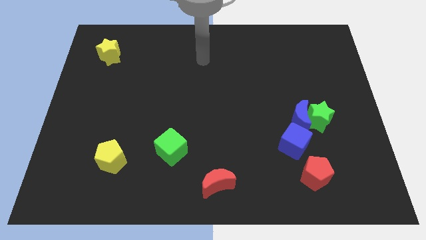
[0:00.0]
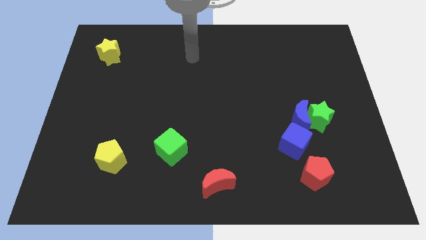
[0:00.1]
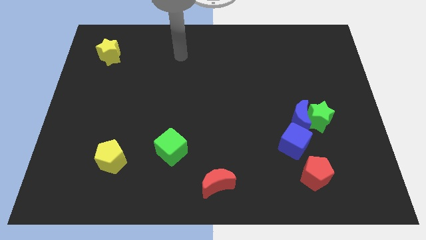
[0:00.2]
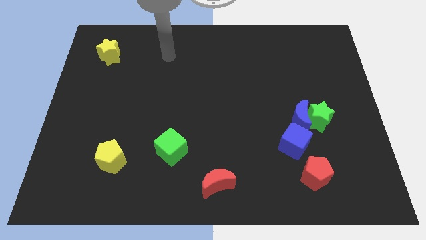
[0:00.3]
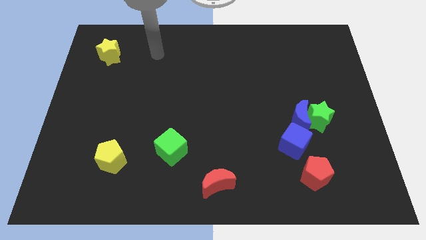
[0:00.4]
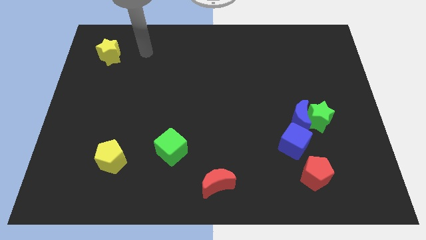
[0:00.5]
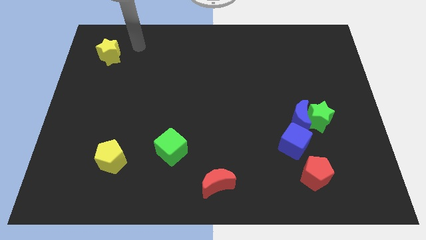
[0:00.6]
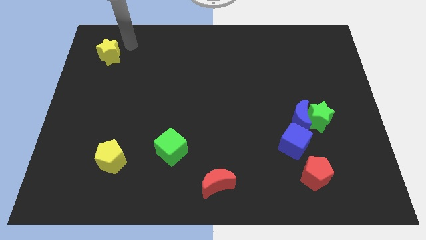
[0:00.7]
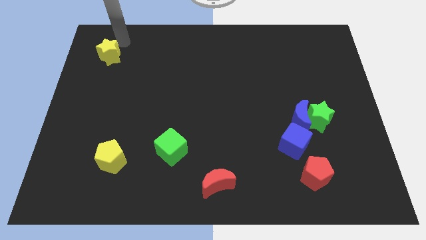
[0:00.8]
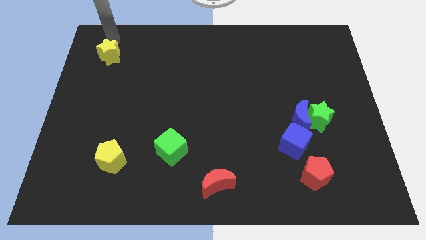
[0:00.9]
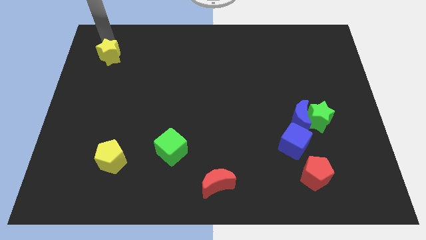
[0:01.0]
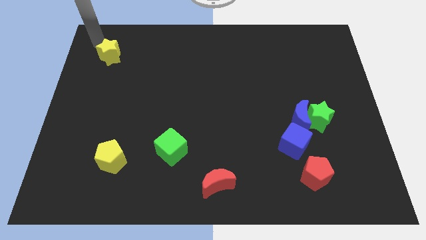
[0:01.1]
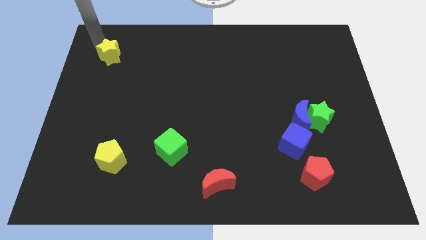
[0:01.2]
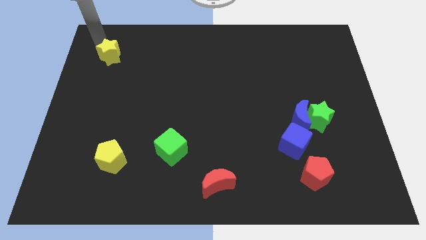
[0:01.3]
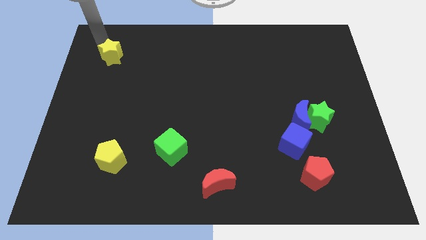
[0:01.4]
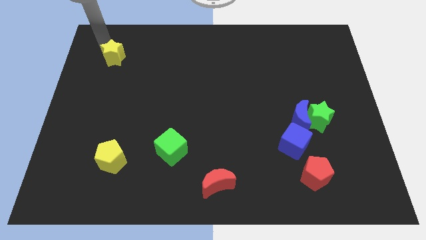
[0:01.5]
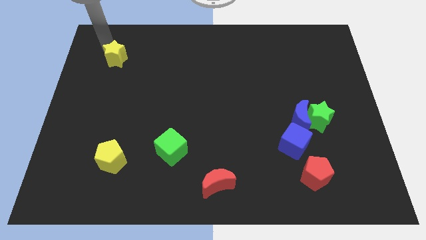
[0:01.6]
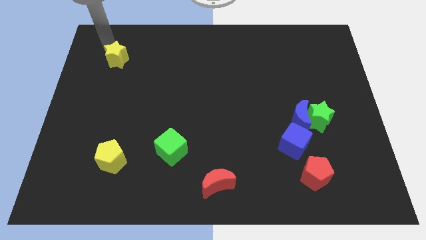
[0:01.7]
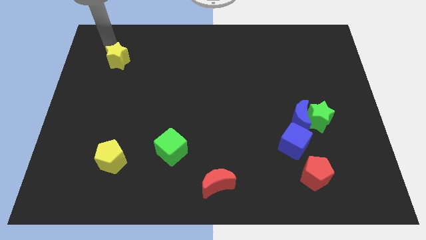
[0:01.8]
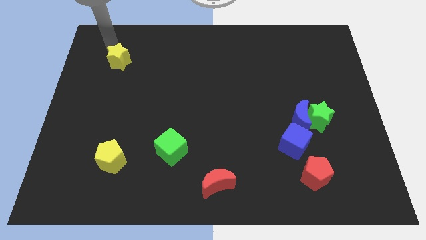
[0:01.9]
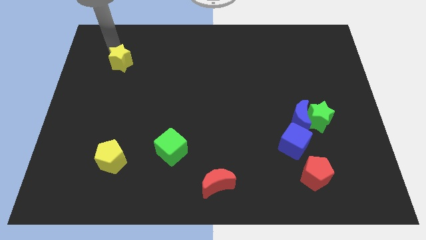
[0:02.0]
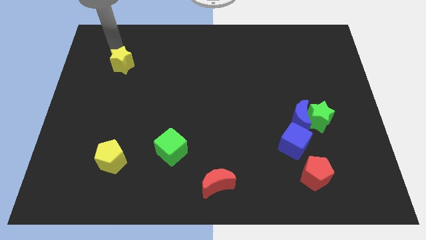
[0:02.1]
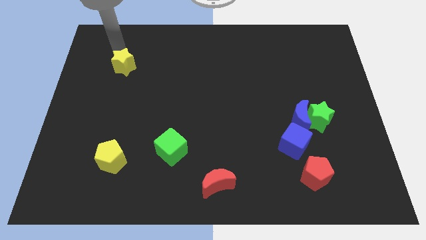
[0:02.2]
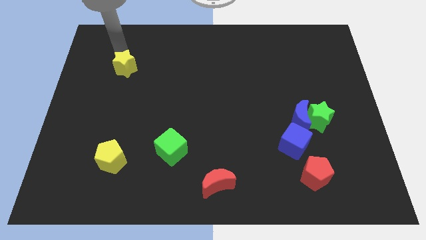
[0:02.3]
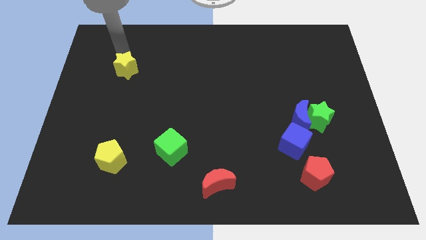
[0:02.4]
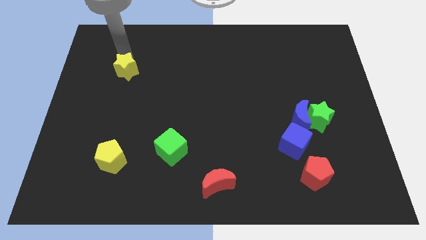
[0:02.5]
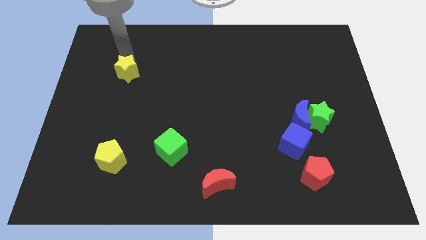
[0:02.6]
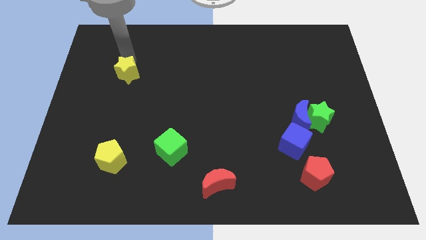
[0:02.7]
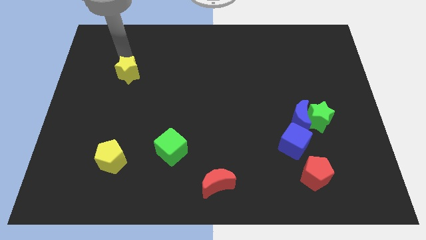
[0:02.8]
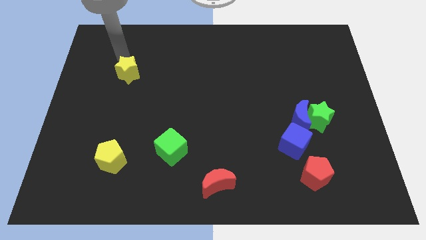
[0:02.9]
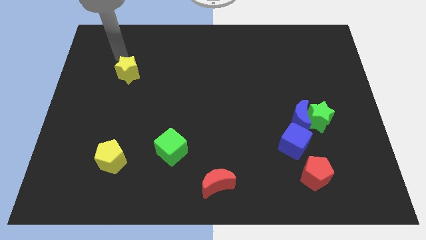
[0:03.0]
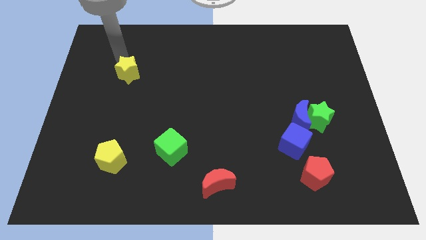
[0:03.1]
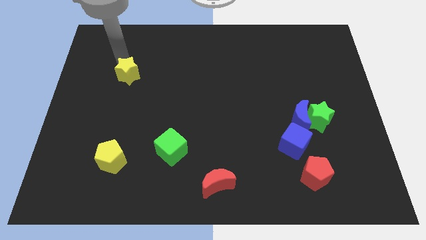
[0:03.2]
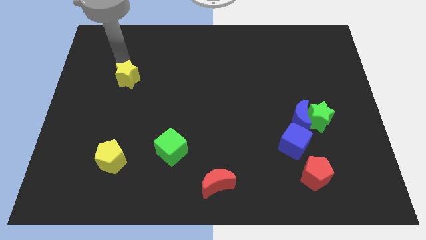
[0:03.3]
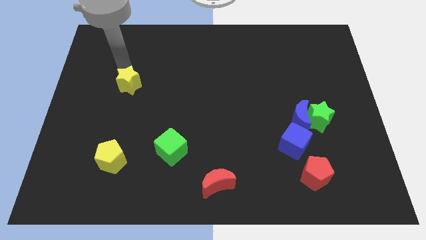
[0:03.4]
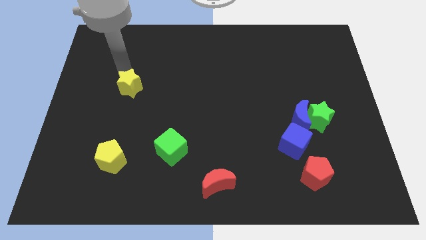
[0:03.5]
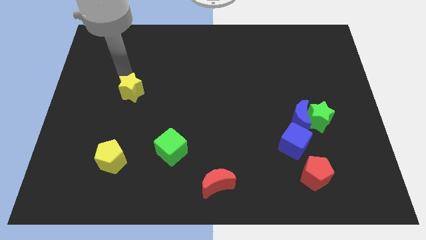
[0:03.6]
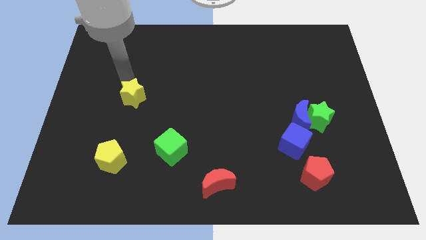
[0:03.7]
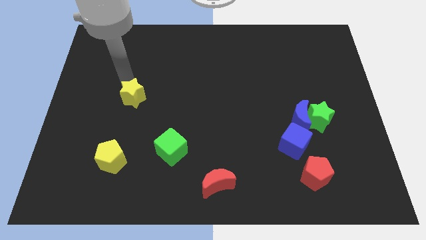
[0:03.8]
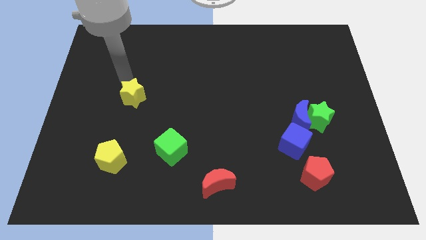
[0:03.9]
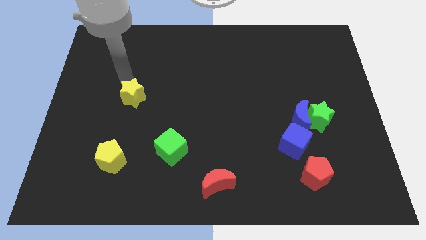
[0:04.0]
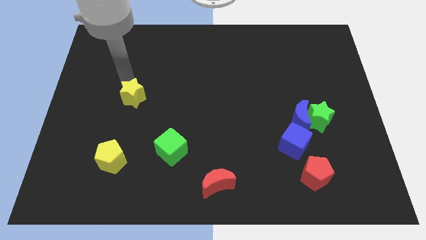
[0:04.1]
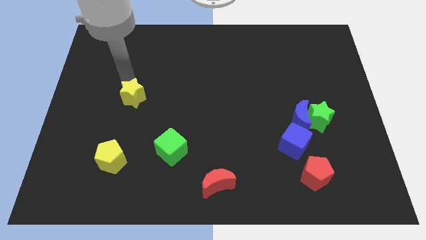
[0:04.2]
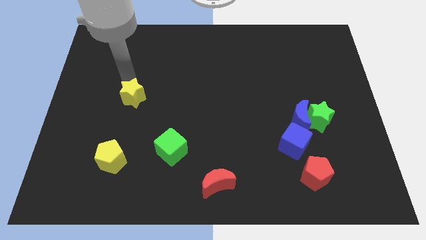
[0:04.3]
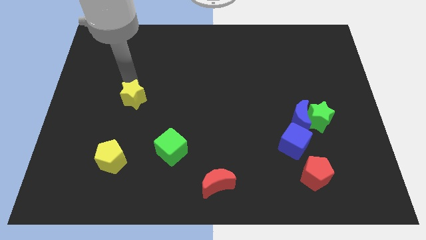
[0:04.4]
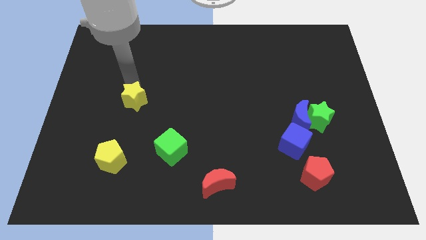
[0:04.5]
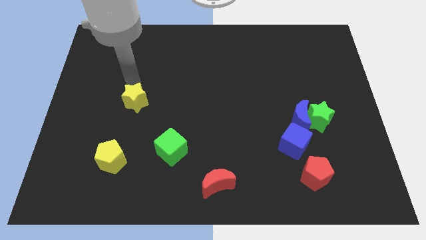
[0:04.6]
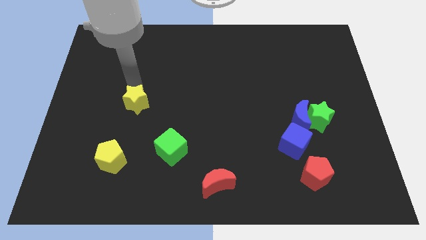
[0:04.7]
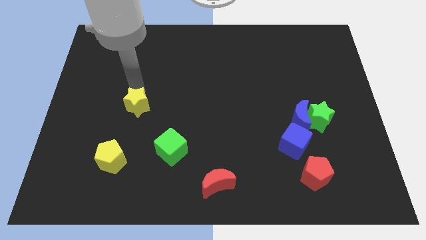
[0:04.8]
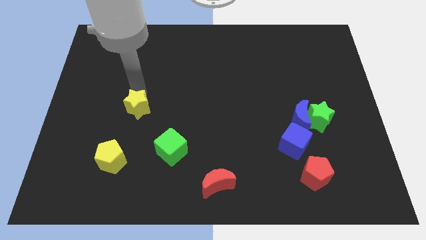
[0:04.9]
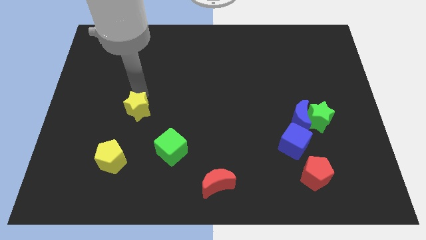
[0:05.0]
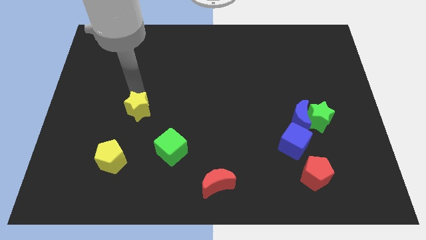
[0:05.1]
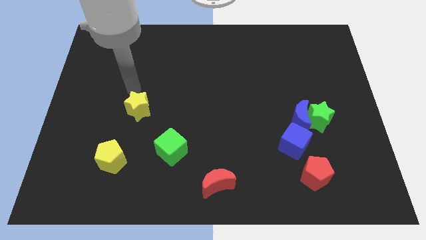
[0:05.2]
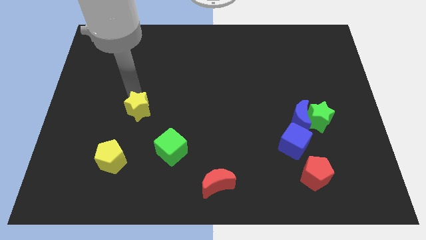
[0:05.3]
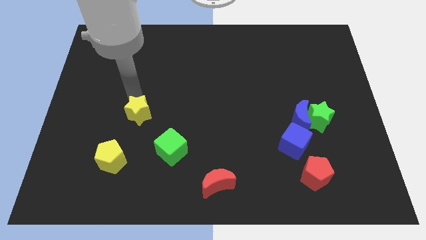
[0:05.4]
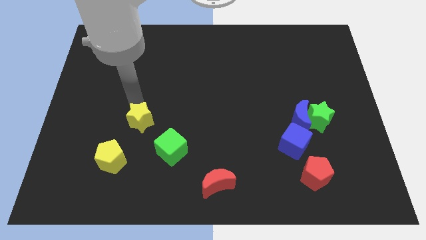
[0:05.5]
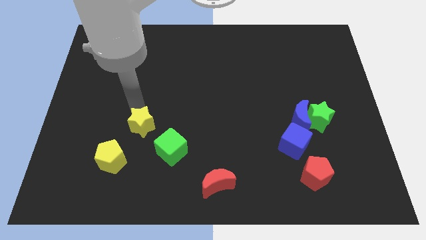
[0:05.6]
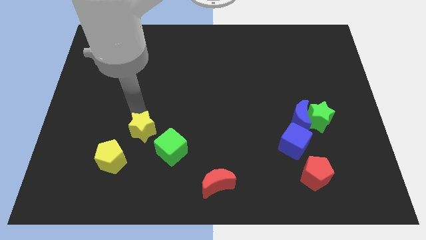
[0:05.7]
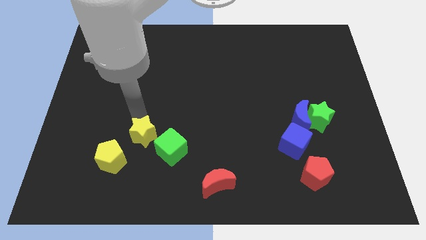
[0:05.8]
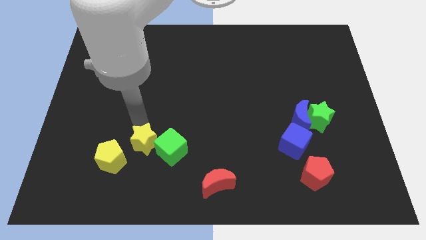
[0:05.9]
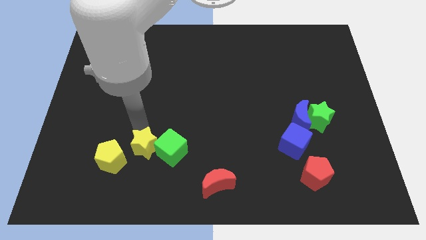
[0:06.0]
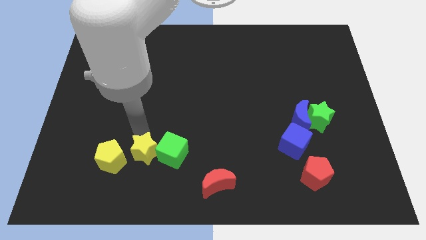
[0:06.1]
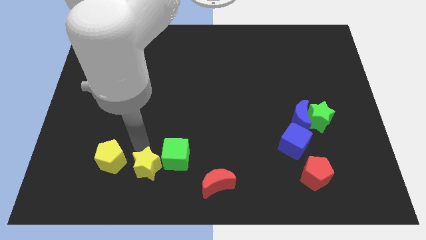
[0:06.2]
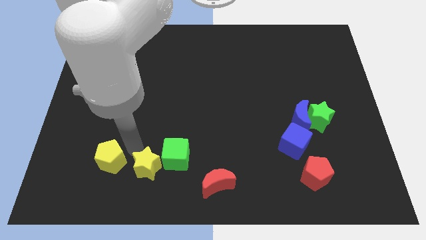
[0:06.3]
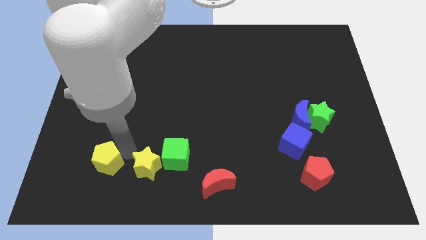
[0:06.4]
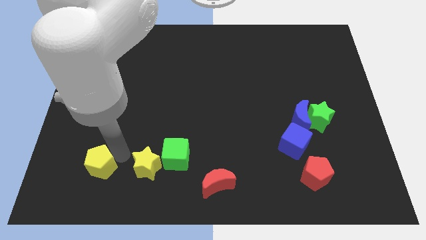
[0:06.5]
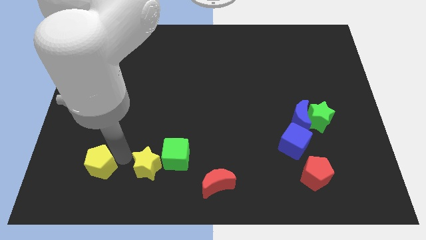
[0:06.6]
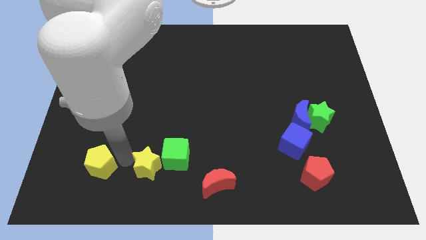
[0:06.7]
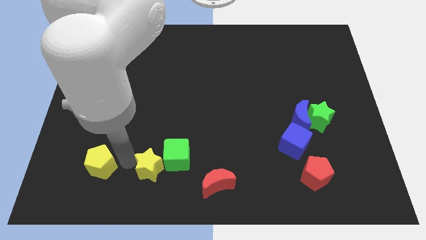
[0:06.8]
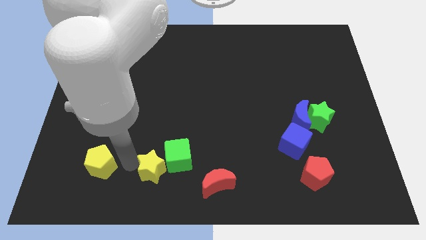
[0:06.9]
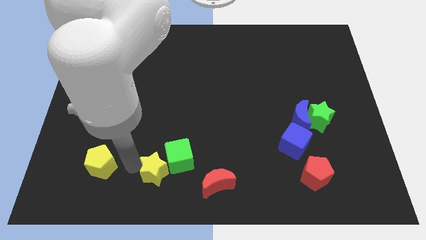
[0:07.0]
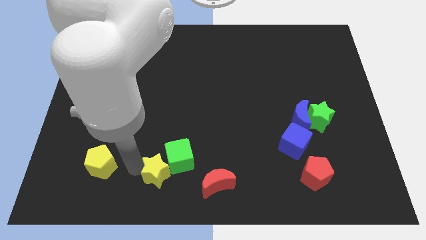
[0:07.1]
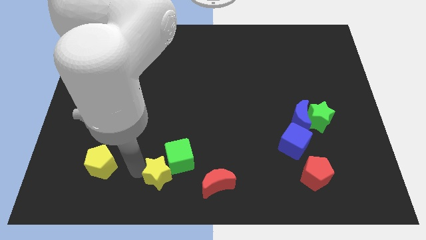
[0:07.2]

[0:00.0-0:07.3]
put the yellow star to the bottom side
